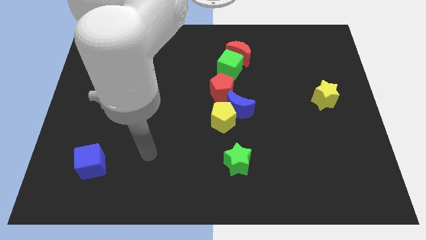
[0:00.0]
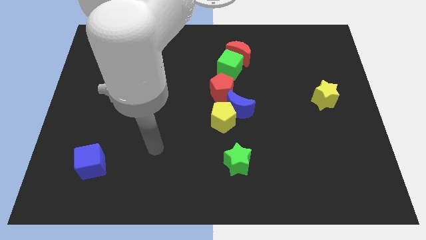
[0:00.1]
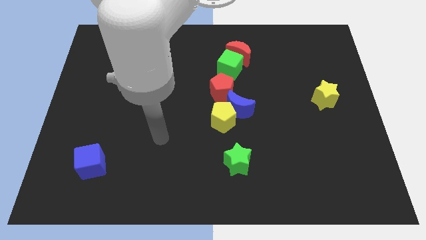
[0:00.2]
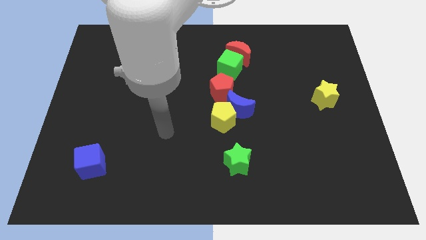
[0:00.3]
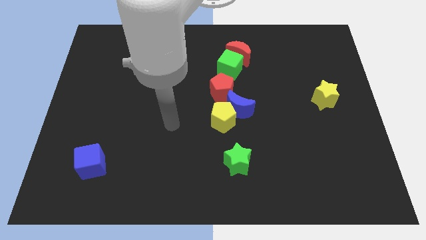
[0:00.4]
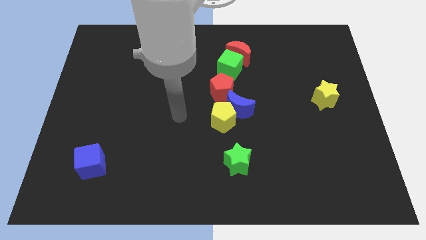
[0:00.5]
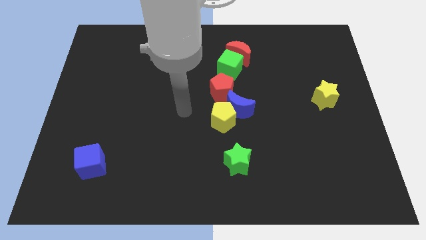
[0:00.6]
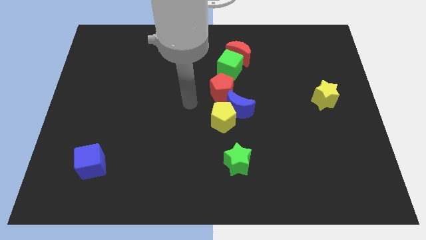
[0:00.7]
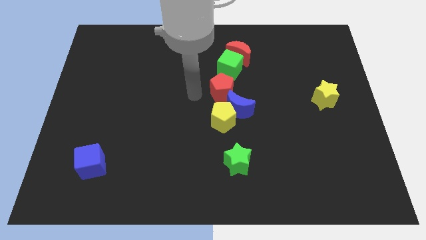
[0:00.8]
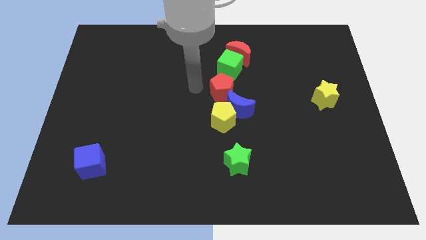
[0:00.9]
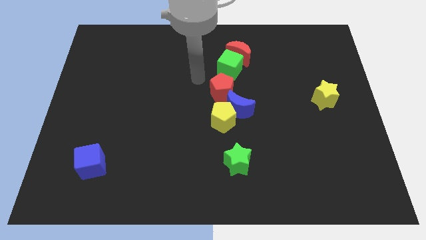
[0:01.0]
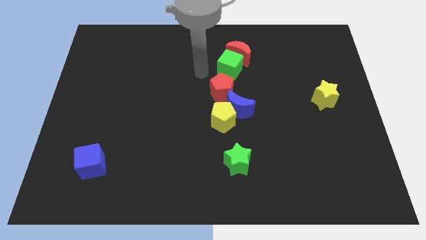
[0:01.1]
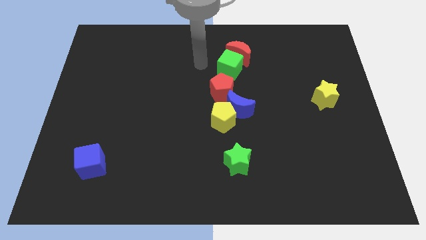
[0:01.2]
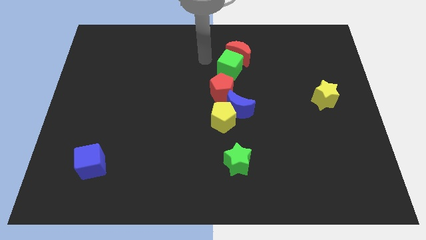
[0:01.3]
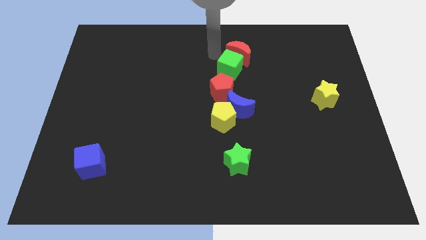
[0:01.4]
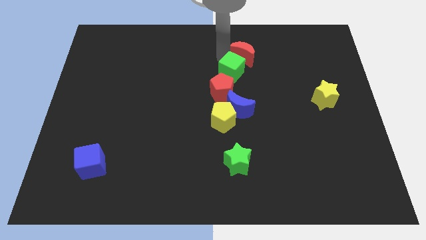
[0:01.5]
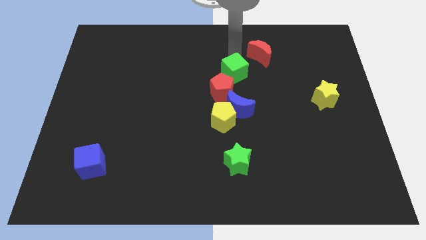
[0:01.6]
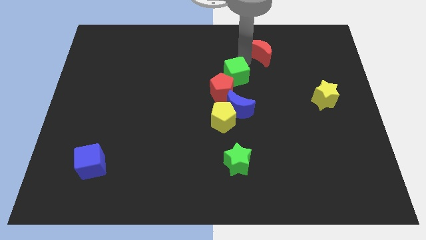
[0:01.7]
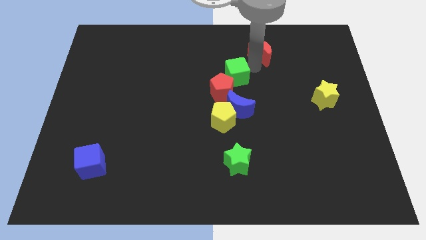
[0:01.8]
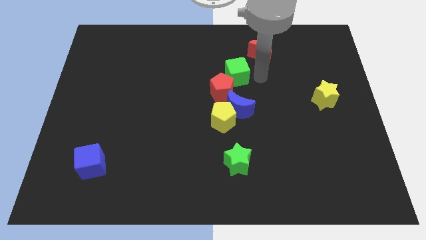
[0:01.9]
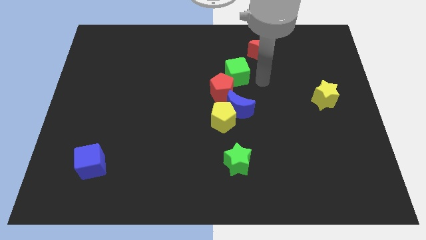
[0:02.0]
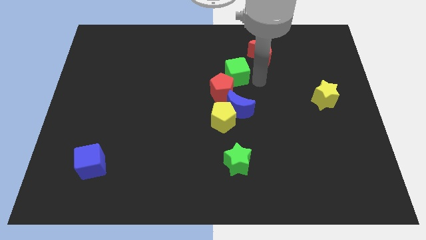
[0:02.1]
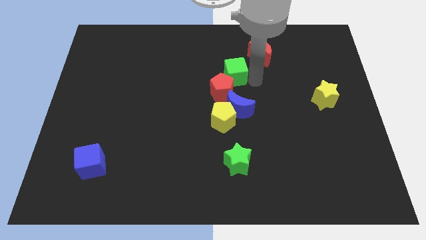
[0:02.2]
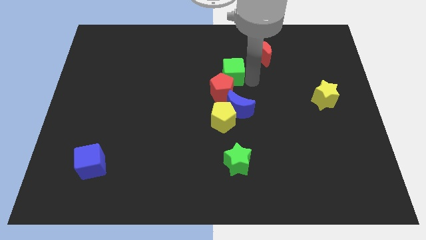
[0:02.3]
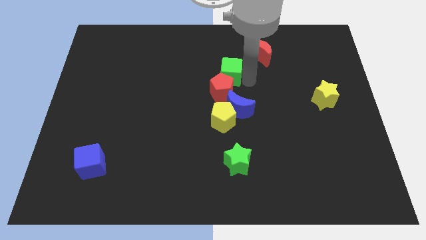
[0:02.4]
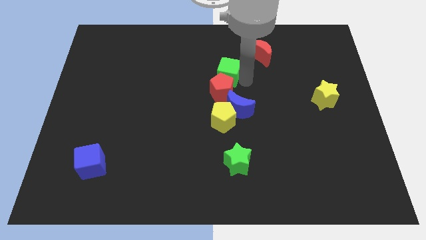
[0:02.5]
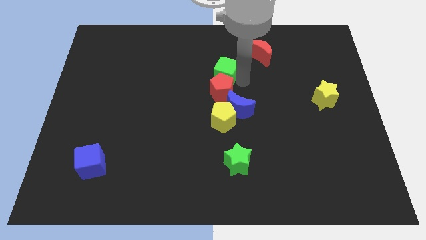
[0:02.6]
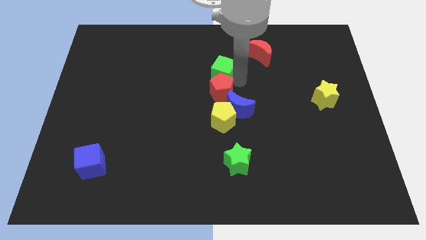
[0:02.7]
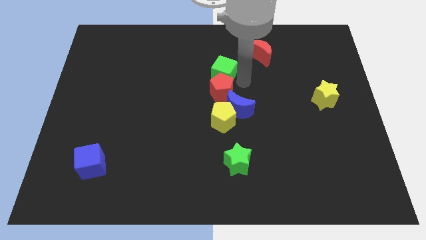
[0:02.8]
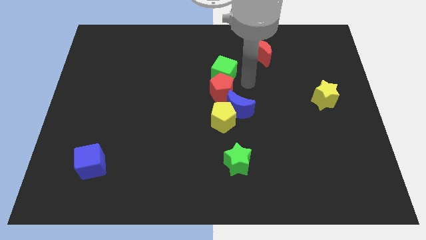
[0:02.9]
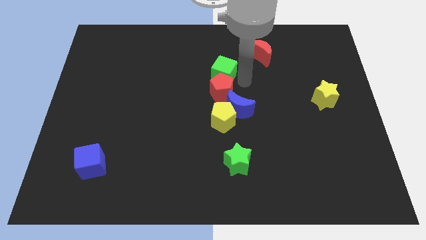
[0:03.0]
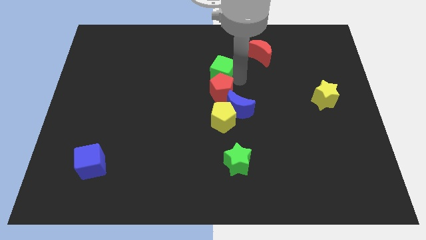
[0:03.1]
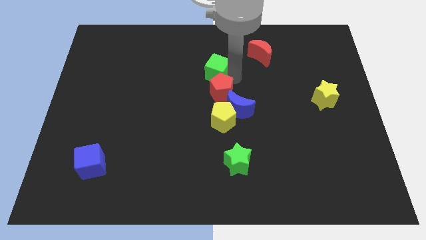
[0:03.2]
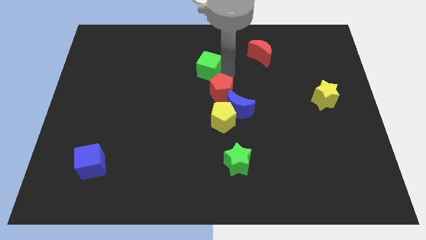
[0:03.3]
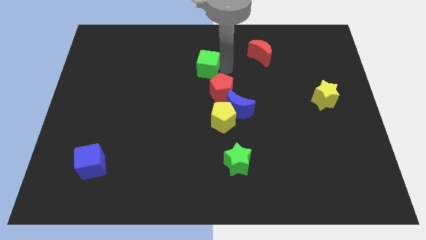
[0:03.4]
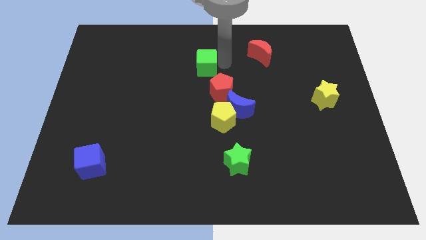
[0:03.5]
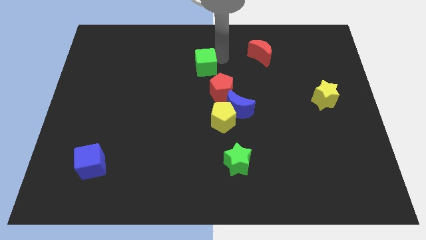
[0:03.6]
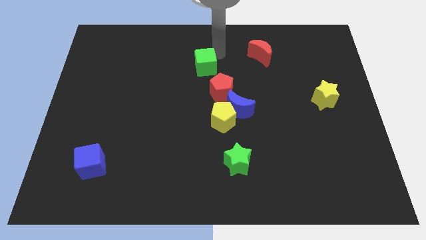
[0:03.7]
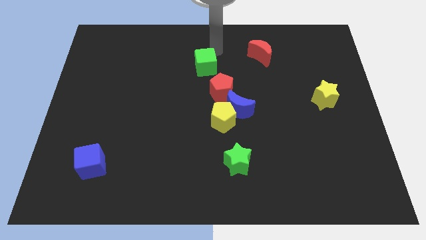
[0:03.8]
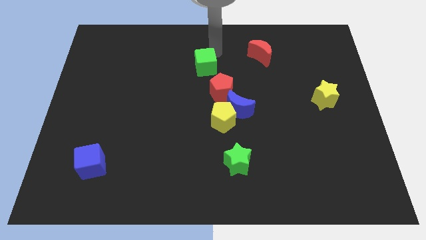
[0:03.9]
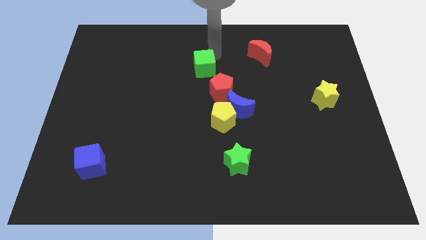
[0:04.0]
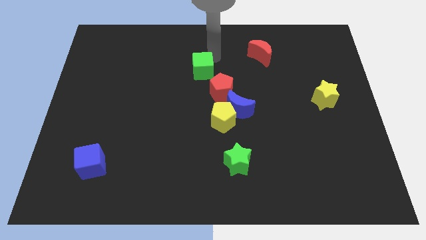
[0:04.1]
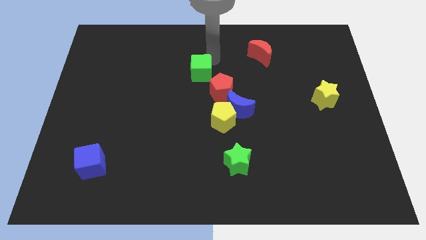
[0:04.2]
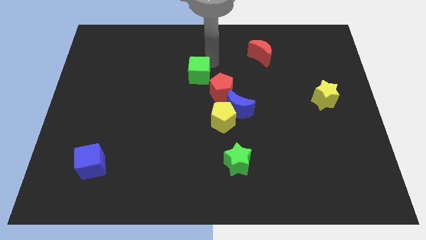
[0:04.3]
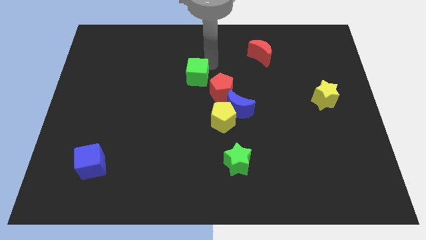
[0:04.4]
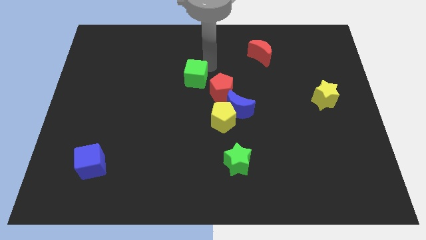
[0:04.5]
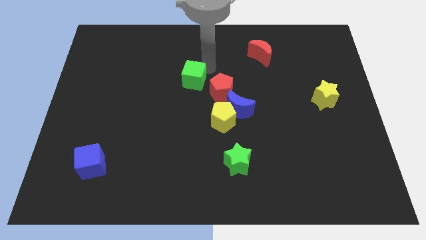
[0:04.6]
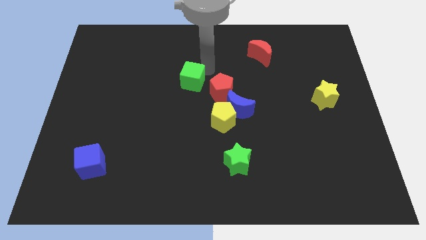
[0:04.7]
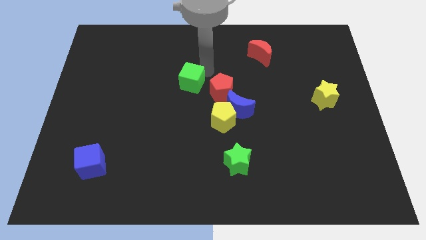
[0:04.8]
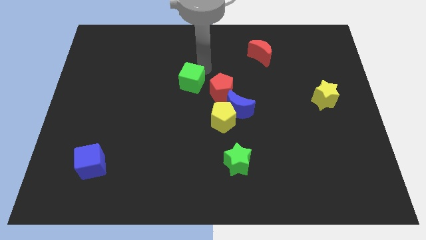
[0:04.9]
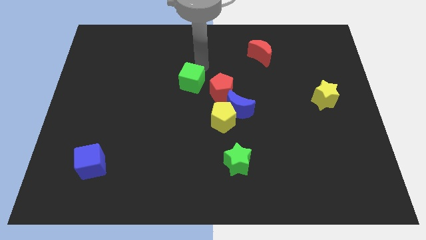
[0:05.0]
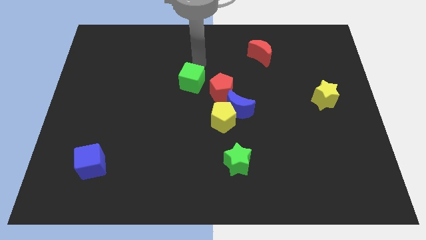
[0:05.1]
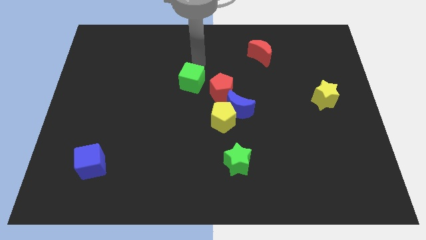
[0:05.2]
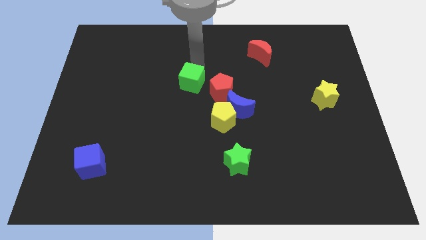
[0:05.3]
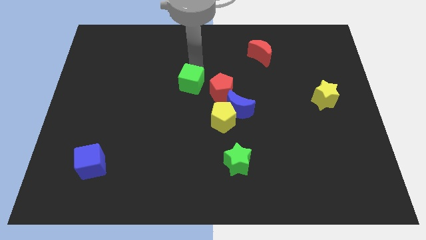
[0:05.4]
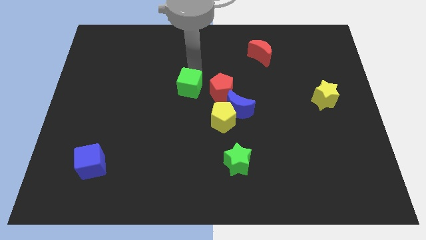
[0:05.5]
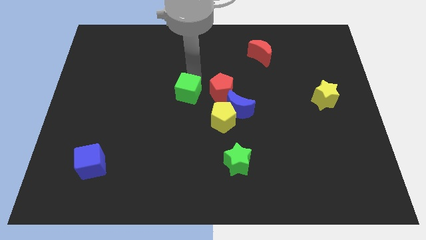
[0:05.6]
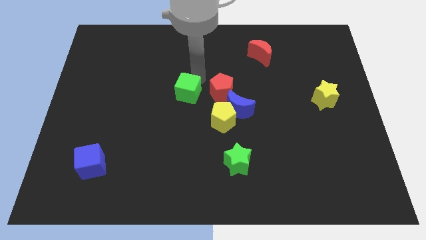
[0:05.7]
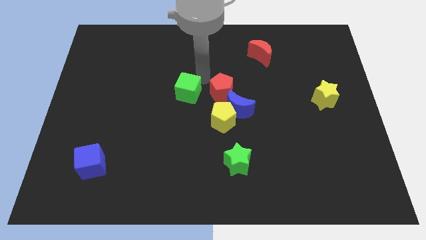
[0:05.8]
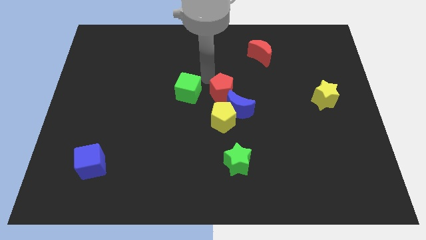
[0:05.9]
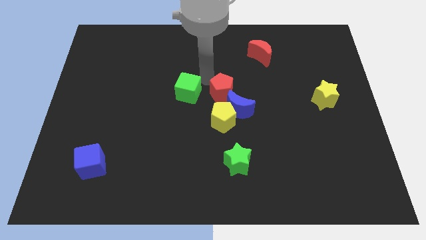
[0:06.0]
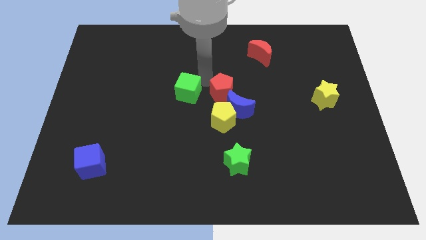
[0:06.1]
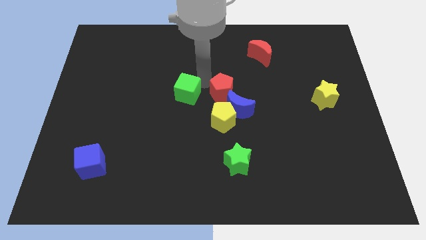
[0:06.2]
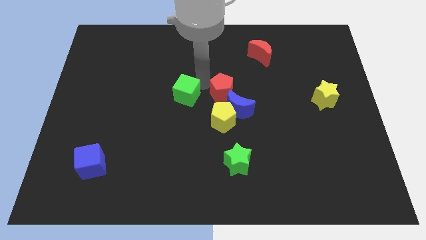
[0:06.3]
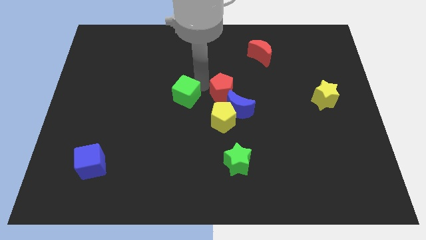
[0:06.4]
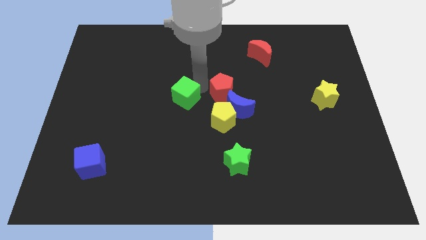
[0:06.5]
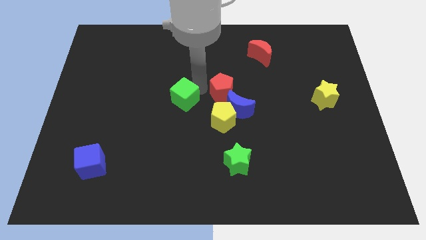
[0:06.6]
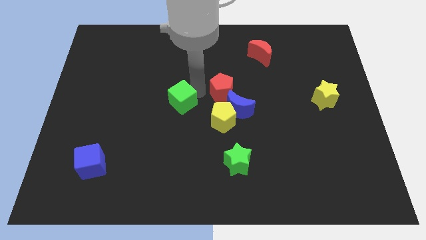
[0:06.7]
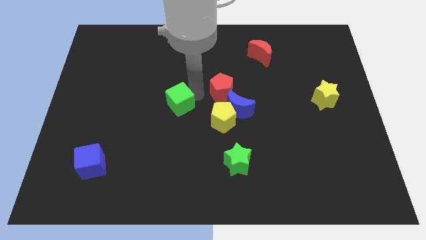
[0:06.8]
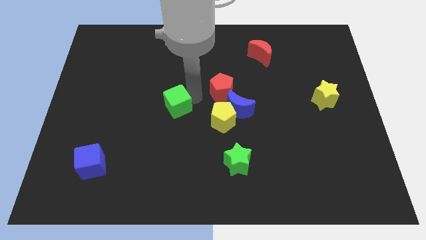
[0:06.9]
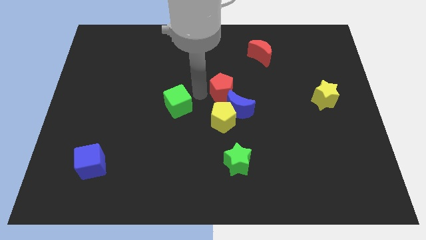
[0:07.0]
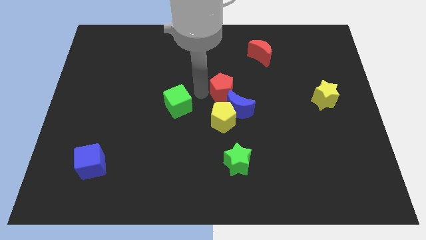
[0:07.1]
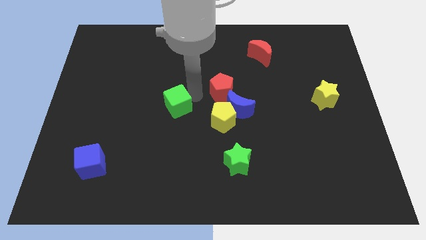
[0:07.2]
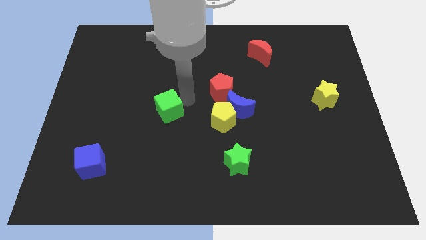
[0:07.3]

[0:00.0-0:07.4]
slide the green cube down and left diagonally
